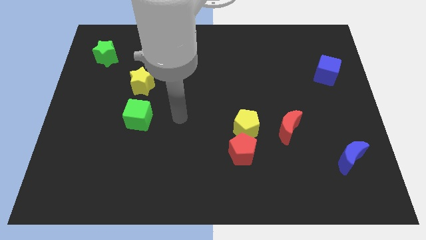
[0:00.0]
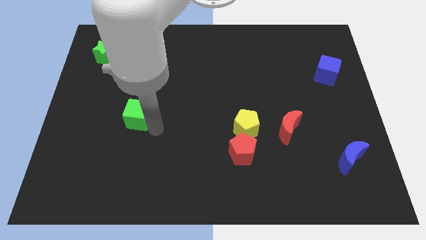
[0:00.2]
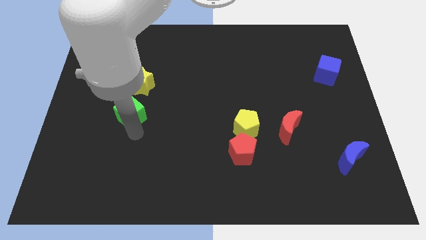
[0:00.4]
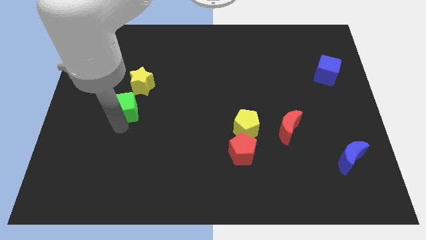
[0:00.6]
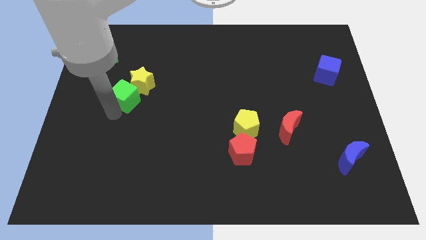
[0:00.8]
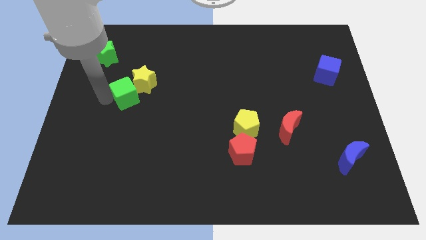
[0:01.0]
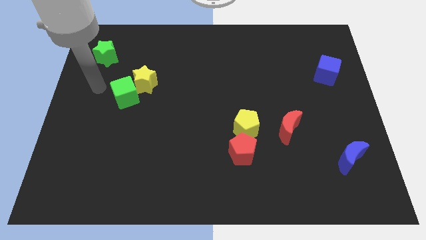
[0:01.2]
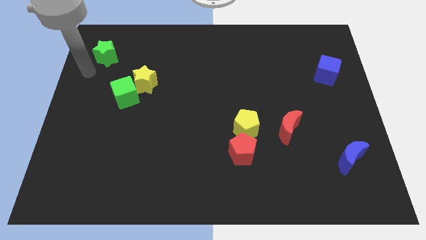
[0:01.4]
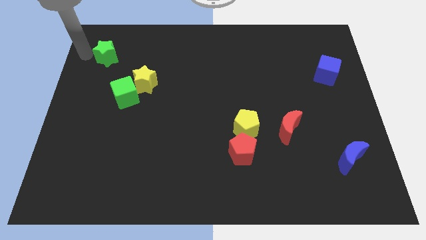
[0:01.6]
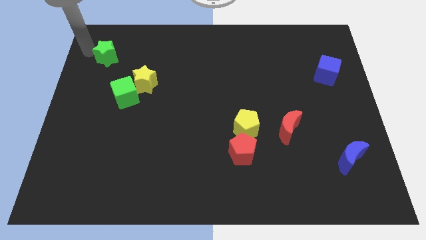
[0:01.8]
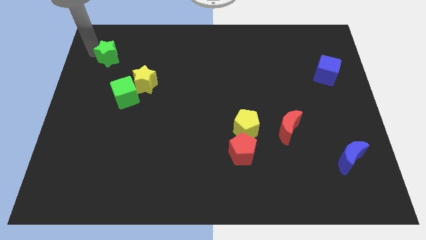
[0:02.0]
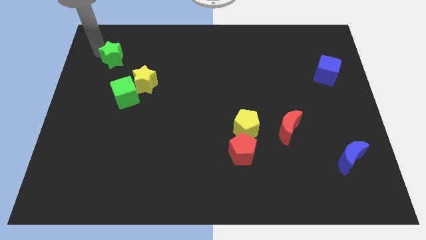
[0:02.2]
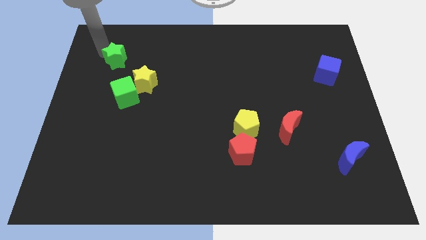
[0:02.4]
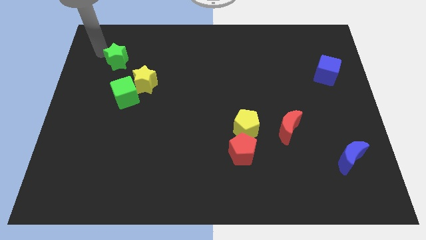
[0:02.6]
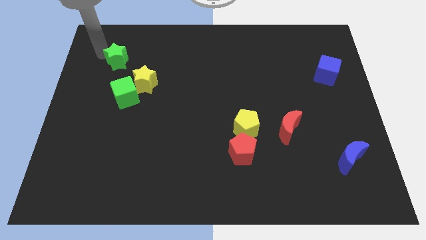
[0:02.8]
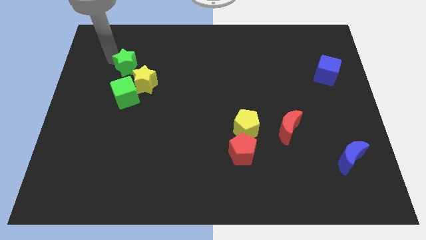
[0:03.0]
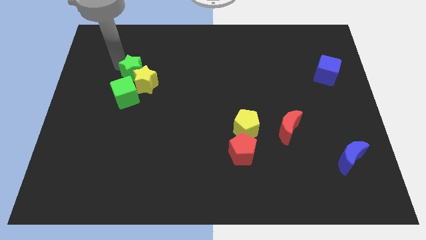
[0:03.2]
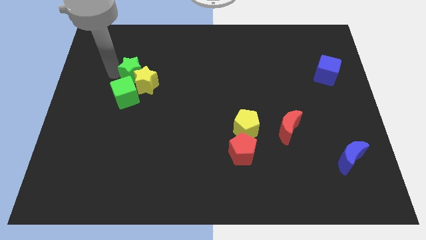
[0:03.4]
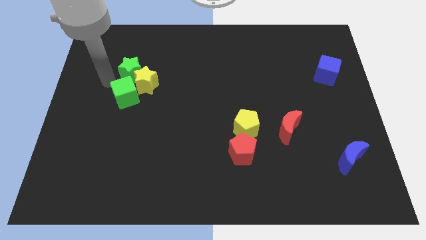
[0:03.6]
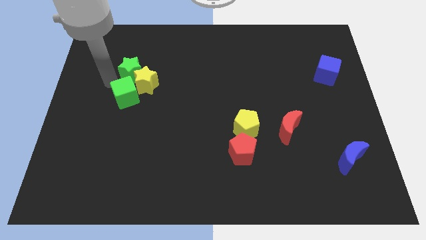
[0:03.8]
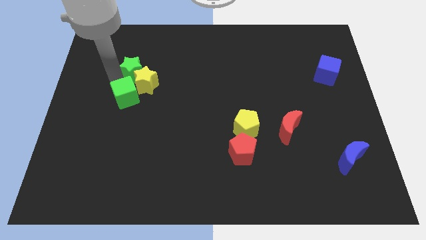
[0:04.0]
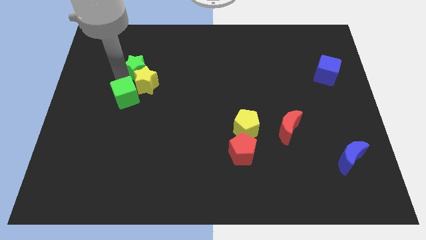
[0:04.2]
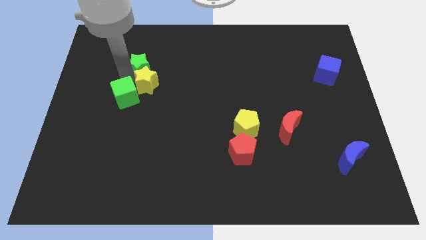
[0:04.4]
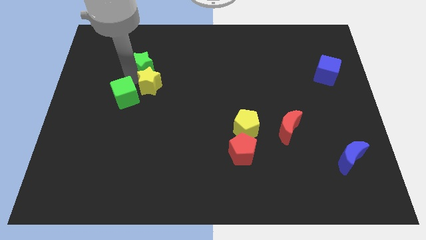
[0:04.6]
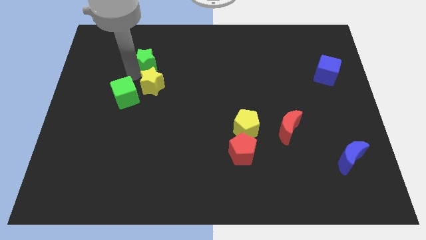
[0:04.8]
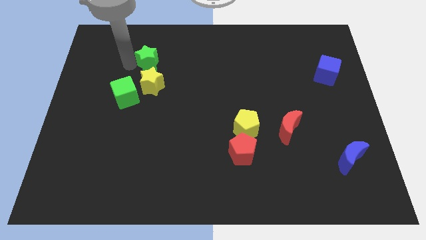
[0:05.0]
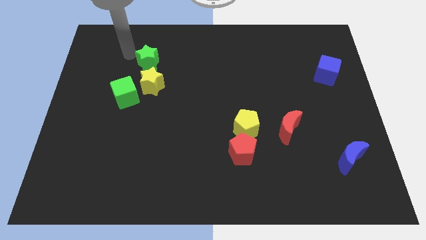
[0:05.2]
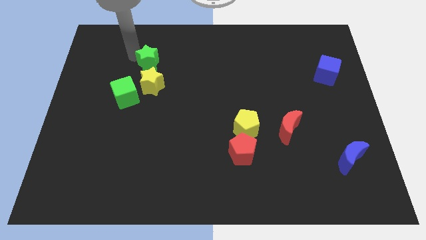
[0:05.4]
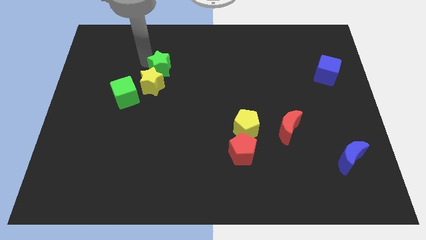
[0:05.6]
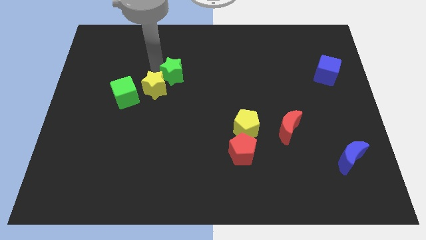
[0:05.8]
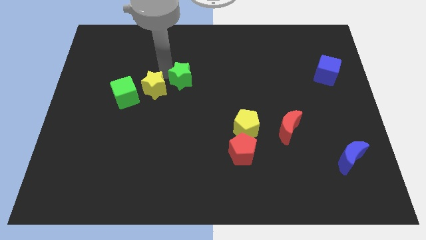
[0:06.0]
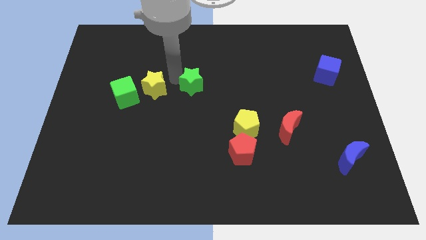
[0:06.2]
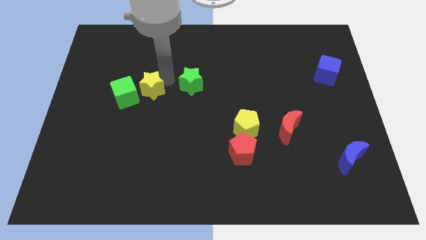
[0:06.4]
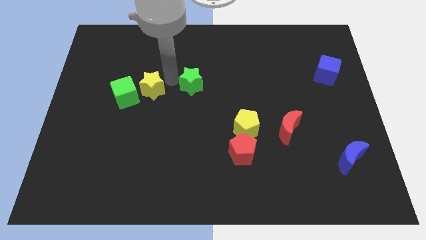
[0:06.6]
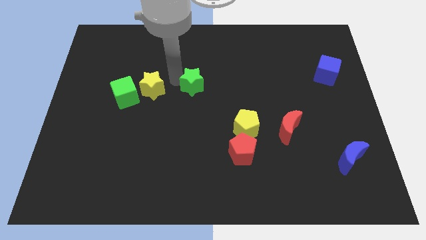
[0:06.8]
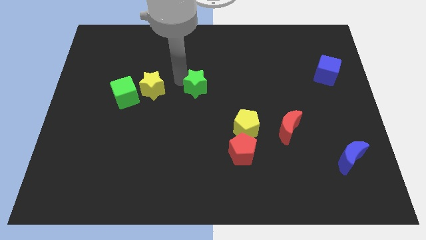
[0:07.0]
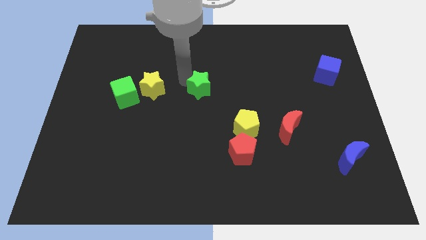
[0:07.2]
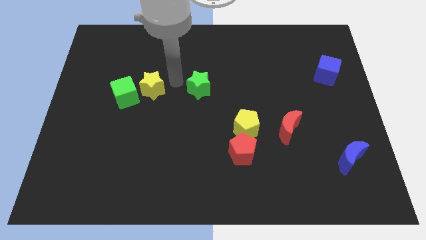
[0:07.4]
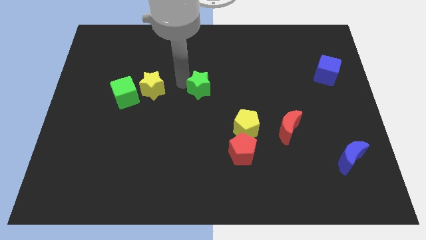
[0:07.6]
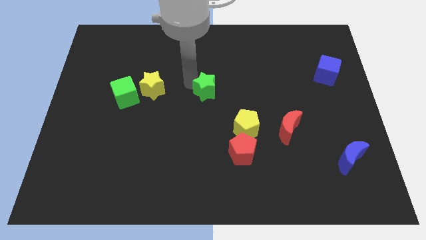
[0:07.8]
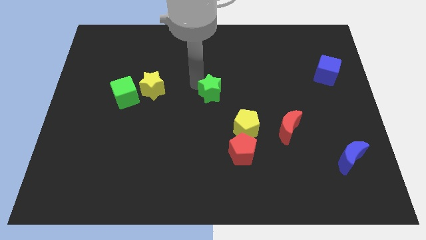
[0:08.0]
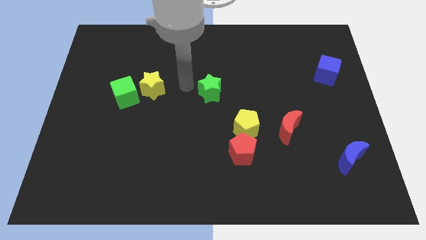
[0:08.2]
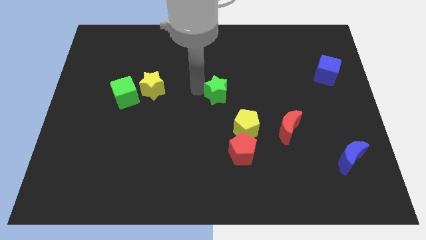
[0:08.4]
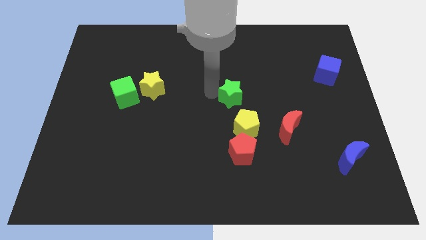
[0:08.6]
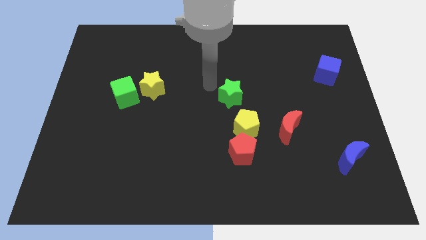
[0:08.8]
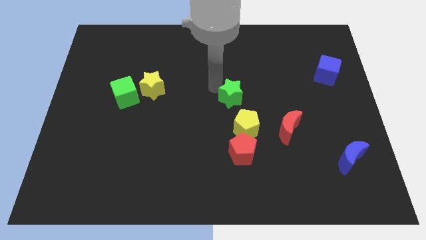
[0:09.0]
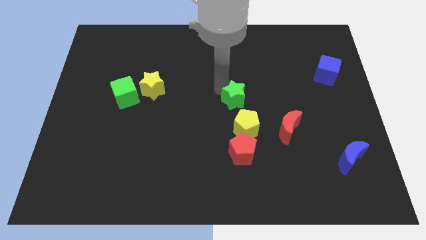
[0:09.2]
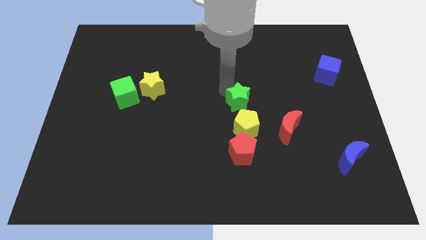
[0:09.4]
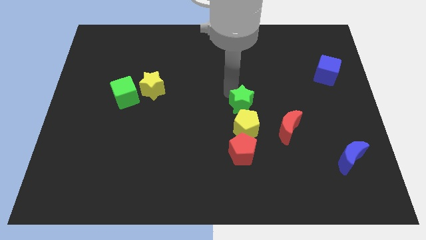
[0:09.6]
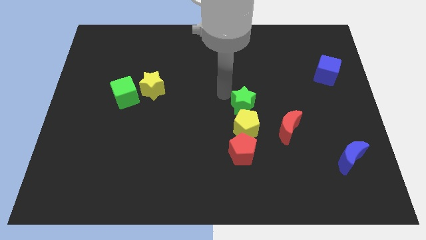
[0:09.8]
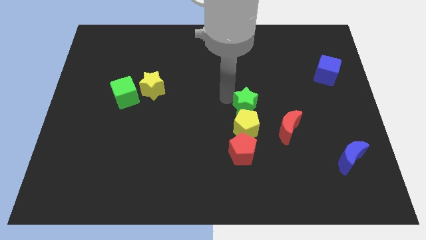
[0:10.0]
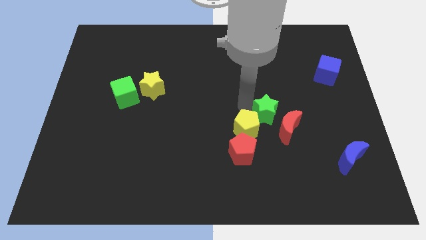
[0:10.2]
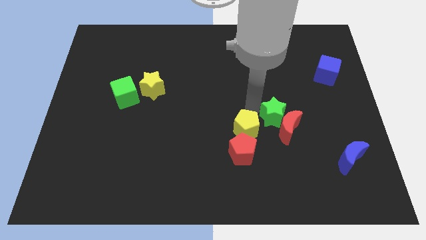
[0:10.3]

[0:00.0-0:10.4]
slide the green star close to the red moon

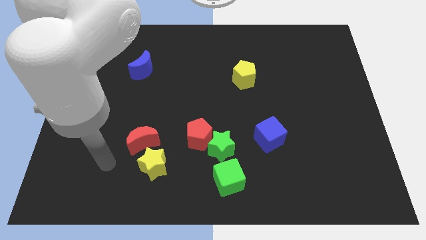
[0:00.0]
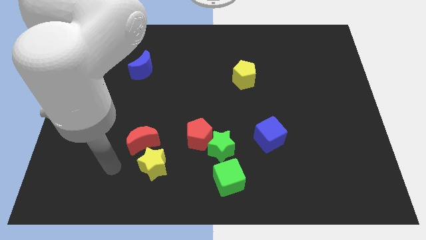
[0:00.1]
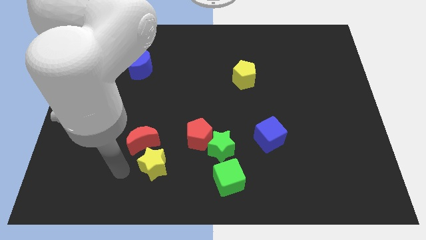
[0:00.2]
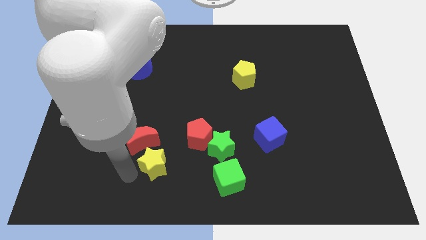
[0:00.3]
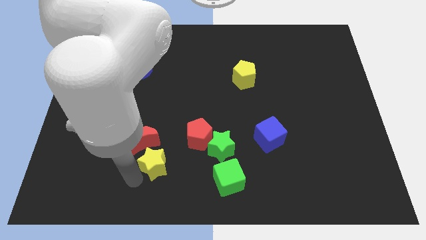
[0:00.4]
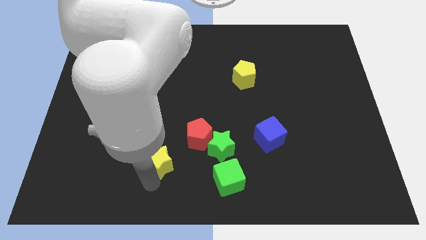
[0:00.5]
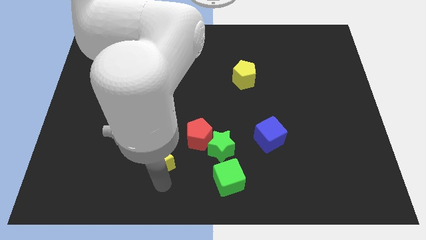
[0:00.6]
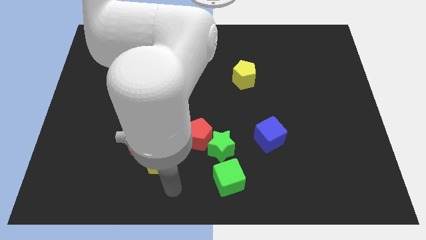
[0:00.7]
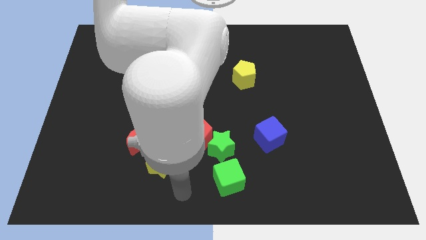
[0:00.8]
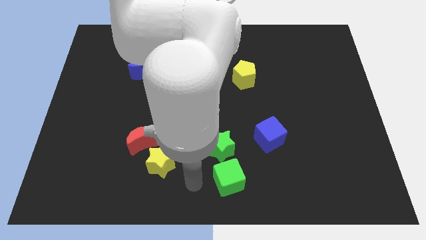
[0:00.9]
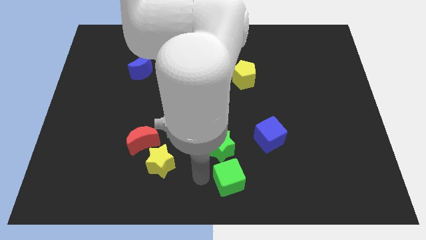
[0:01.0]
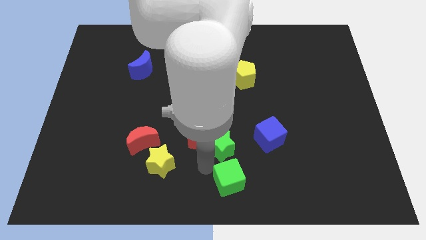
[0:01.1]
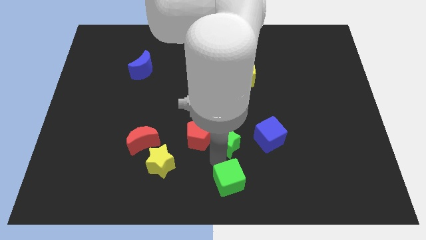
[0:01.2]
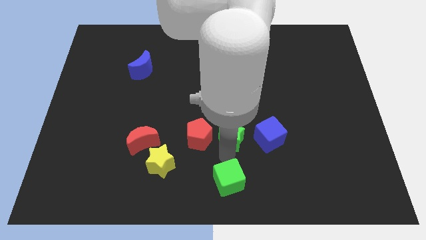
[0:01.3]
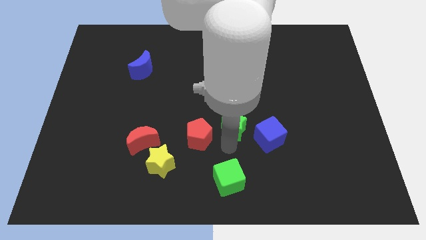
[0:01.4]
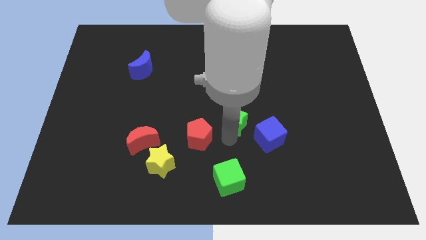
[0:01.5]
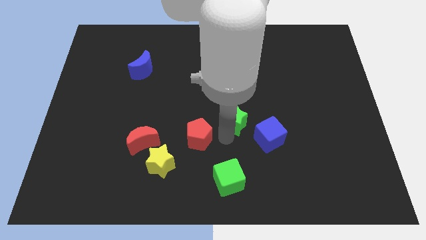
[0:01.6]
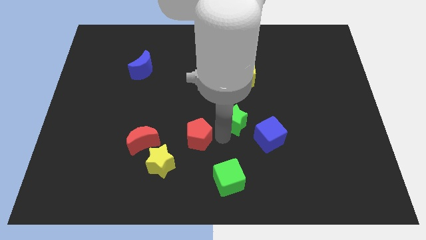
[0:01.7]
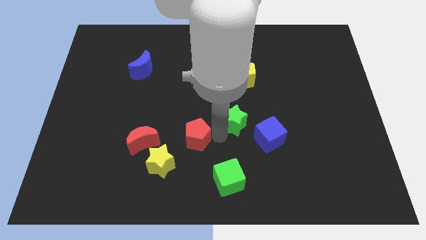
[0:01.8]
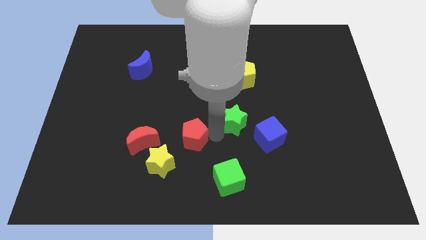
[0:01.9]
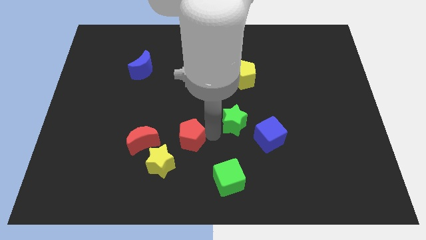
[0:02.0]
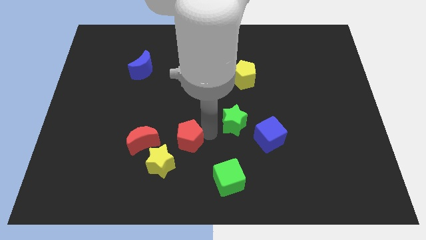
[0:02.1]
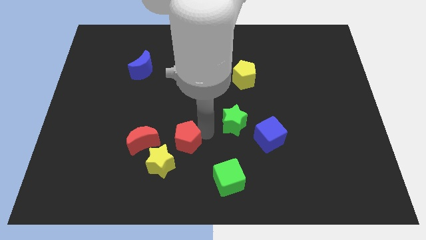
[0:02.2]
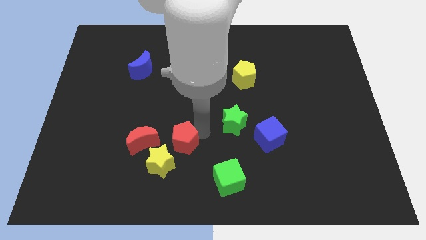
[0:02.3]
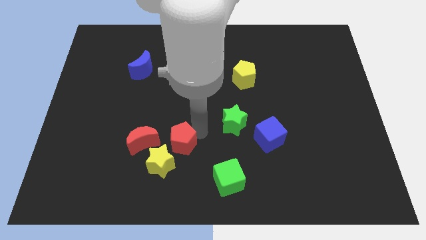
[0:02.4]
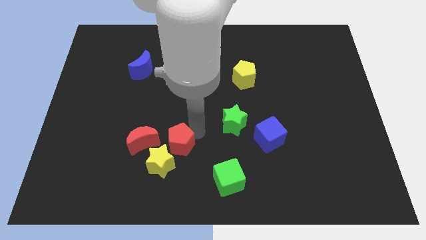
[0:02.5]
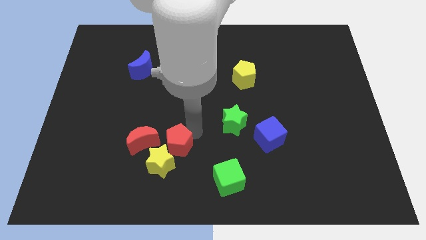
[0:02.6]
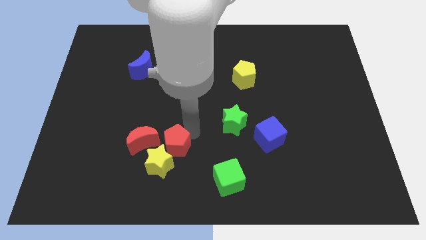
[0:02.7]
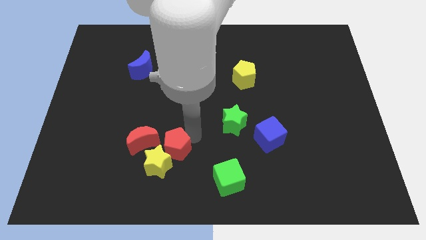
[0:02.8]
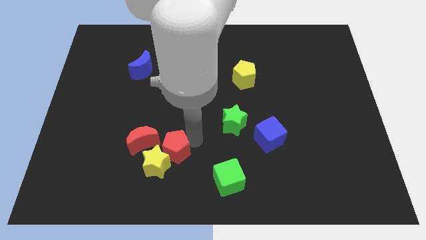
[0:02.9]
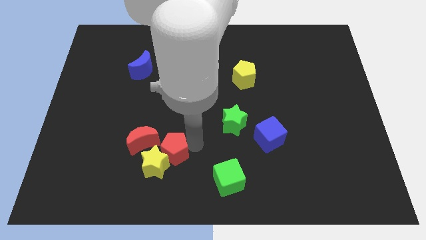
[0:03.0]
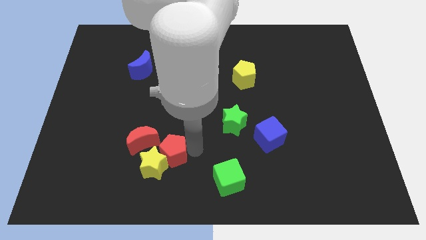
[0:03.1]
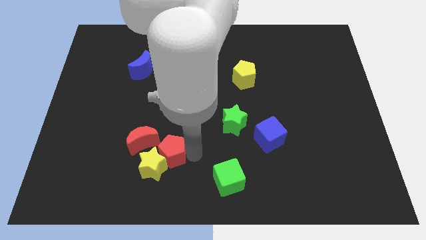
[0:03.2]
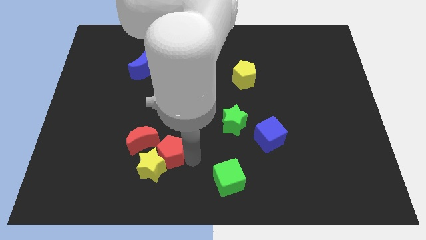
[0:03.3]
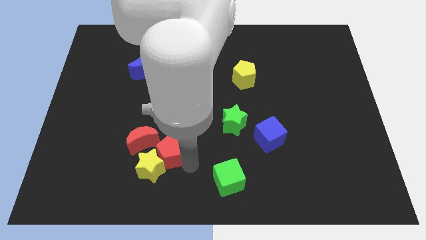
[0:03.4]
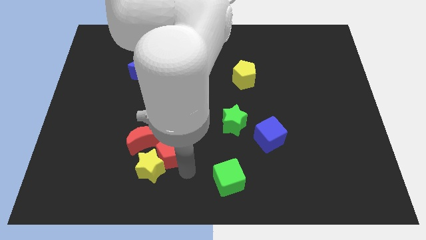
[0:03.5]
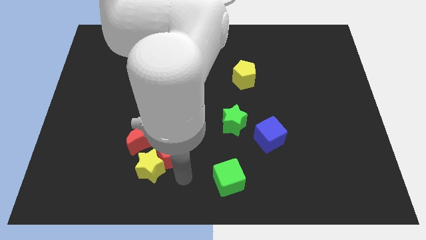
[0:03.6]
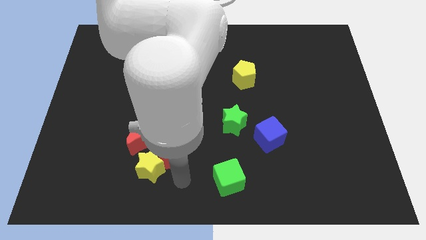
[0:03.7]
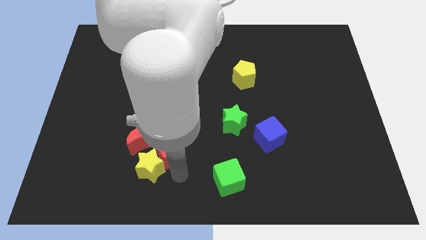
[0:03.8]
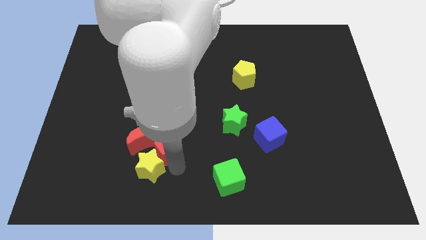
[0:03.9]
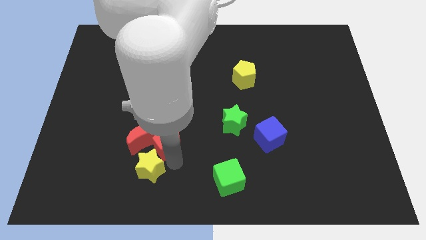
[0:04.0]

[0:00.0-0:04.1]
move the red pentagon to the red moon
